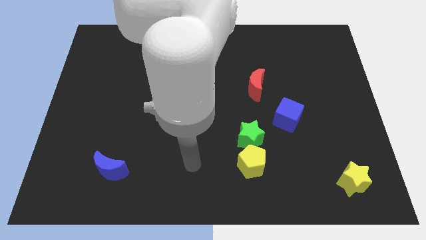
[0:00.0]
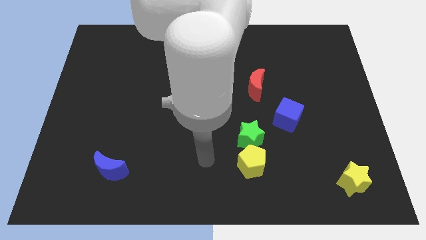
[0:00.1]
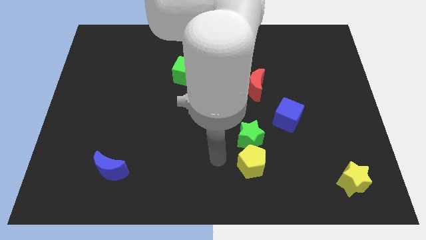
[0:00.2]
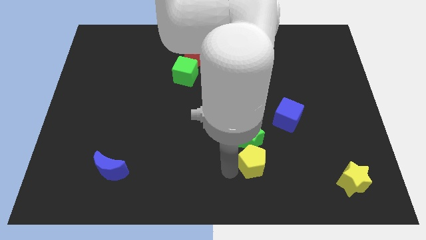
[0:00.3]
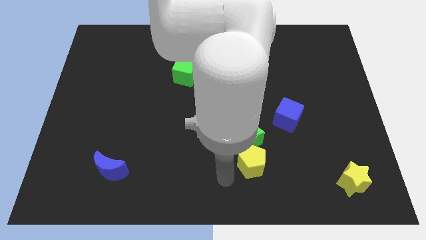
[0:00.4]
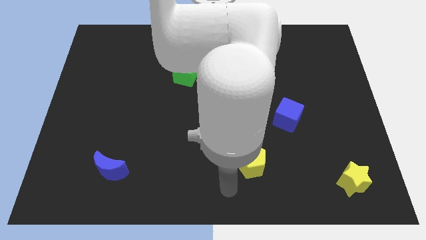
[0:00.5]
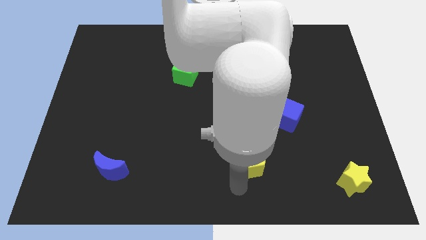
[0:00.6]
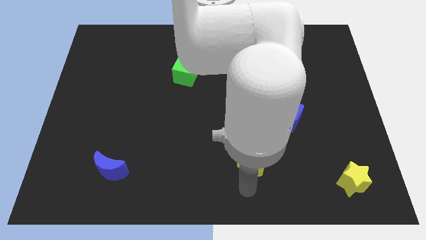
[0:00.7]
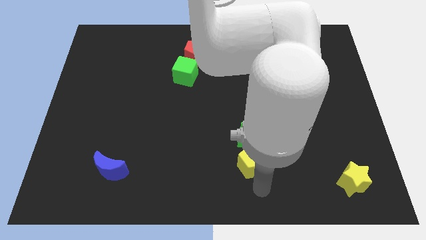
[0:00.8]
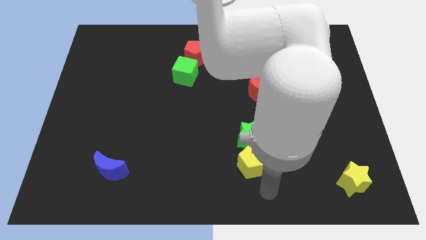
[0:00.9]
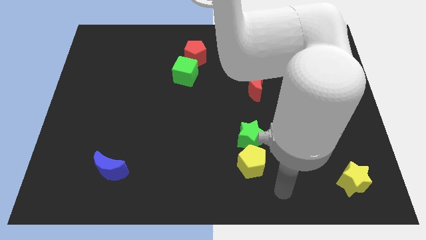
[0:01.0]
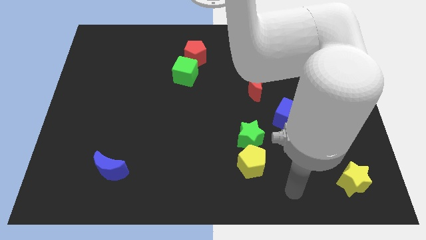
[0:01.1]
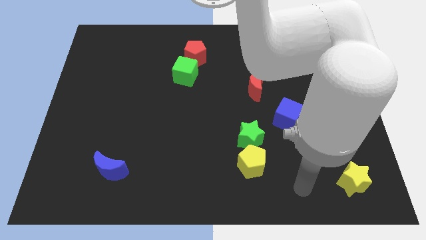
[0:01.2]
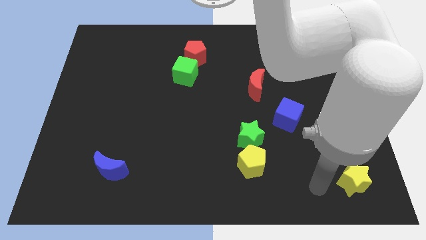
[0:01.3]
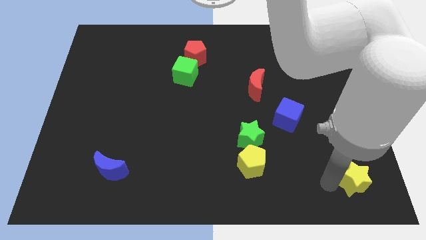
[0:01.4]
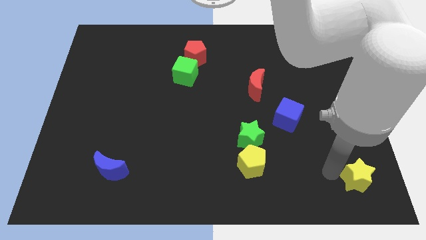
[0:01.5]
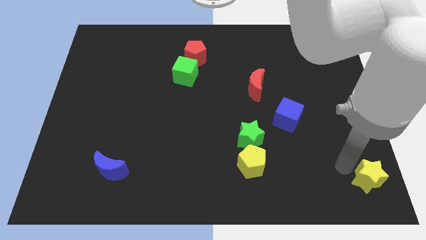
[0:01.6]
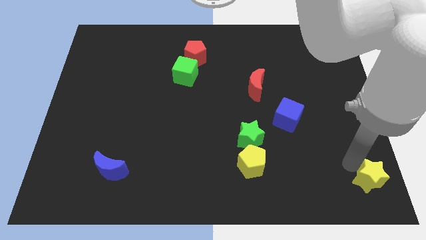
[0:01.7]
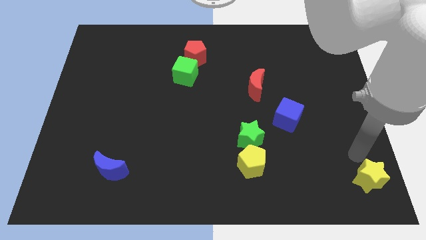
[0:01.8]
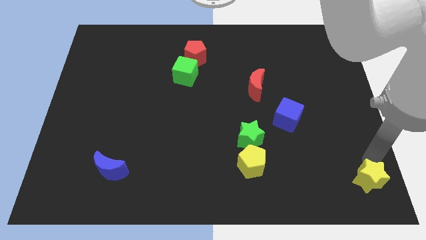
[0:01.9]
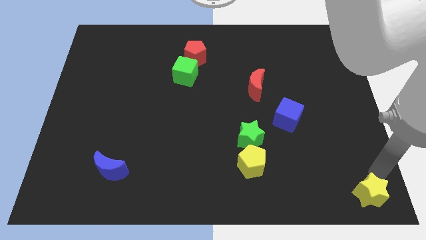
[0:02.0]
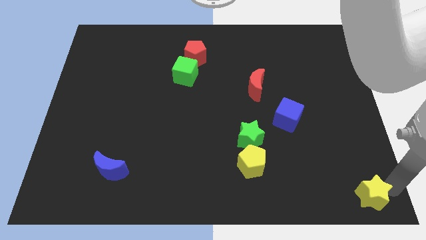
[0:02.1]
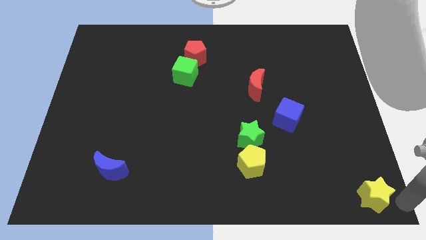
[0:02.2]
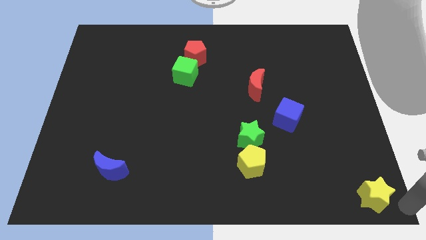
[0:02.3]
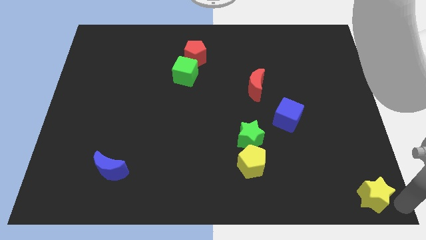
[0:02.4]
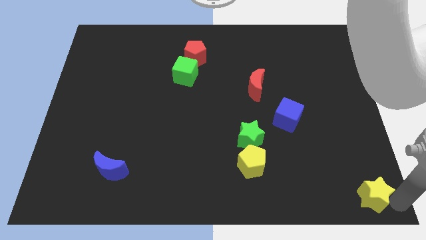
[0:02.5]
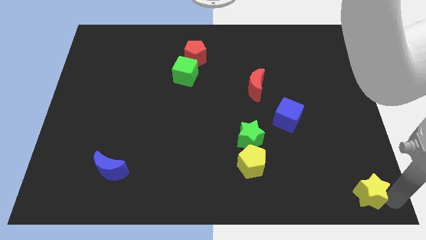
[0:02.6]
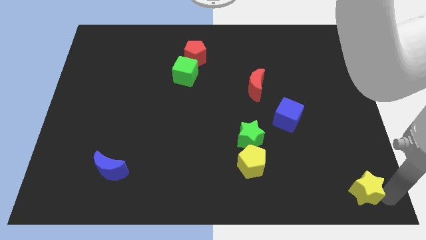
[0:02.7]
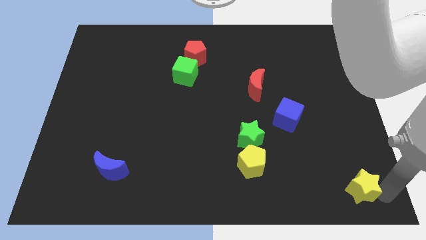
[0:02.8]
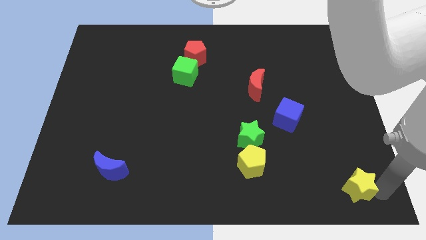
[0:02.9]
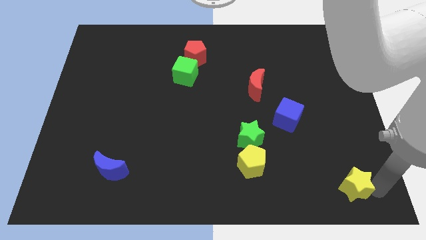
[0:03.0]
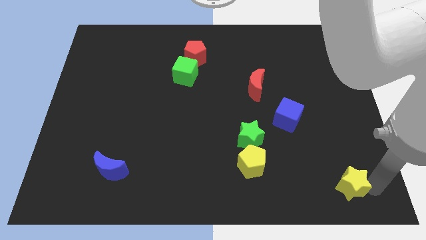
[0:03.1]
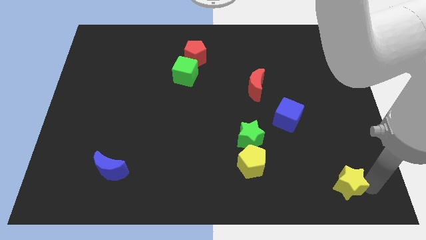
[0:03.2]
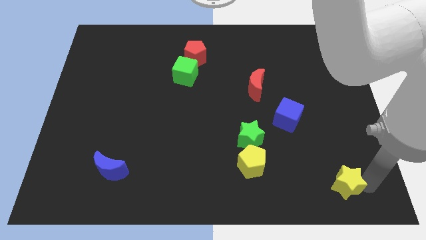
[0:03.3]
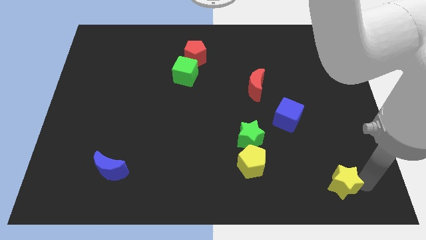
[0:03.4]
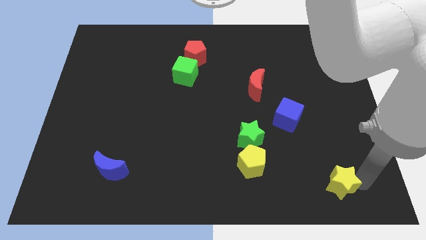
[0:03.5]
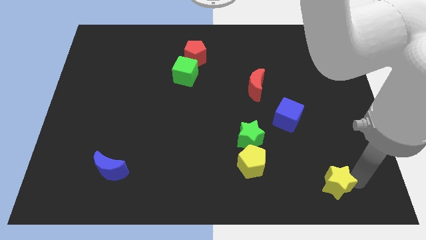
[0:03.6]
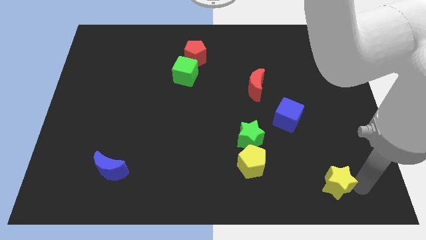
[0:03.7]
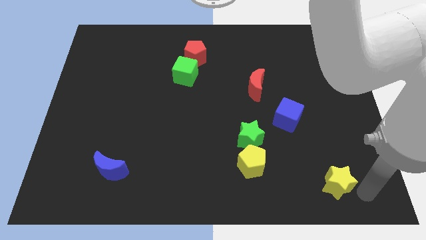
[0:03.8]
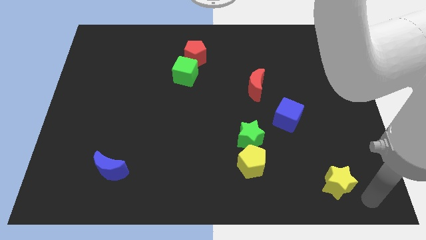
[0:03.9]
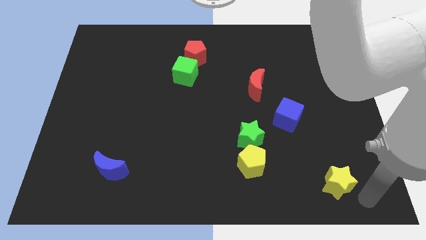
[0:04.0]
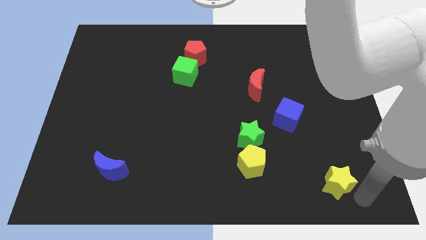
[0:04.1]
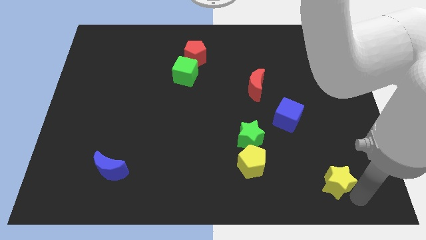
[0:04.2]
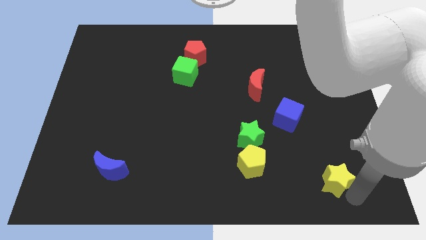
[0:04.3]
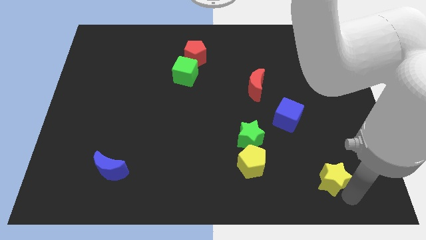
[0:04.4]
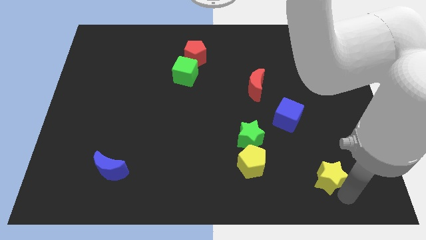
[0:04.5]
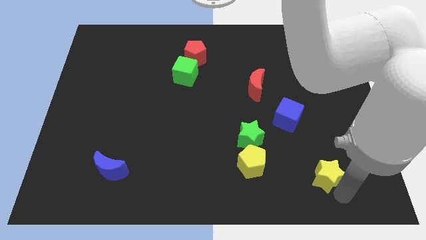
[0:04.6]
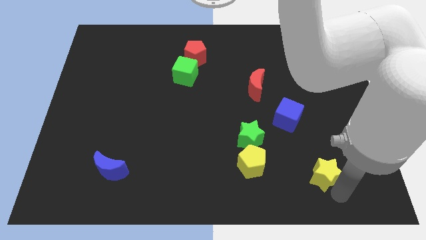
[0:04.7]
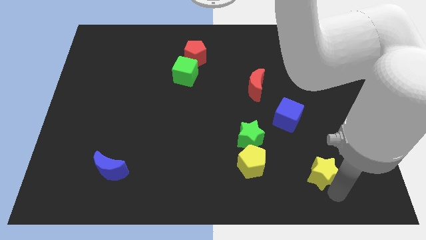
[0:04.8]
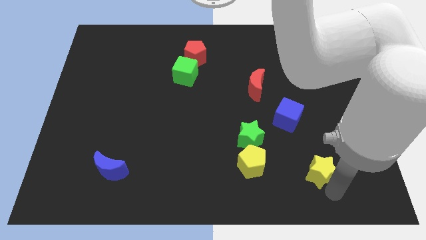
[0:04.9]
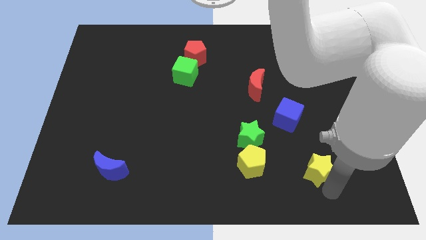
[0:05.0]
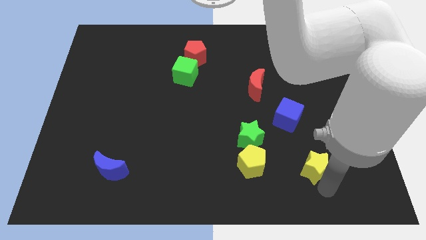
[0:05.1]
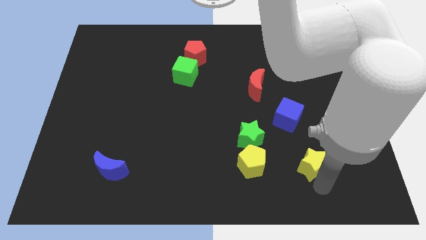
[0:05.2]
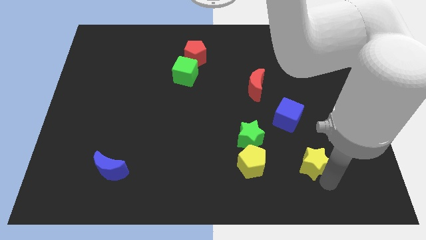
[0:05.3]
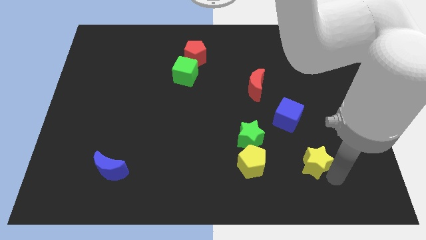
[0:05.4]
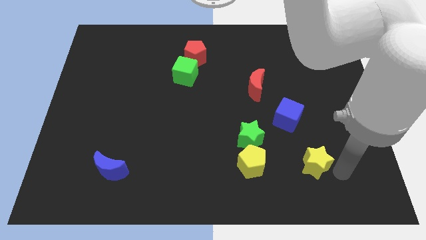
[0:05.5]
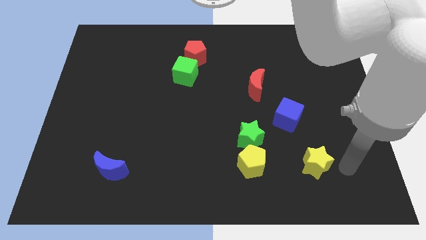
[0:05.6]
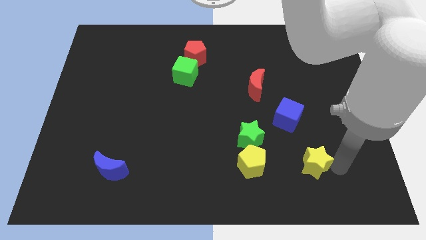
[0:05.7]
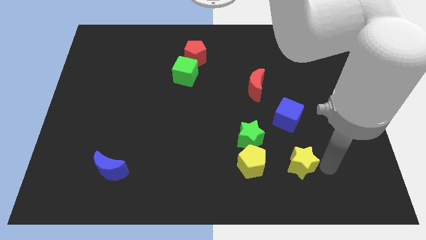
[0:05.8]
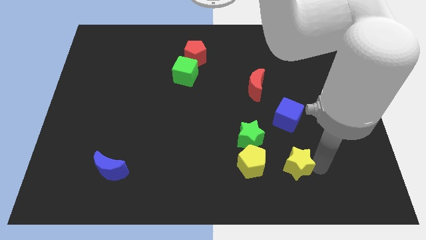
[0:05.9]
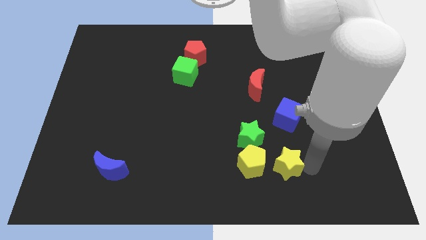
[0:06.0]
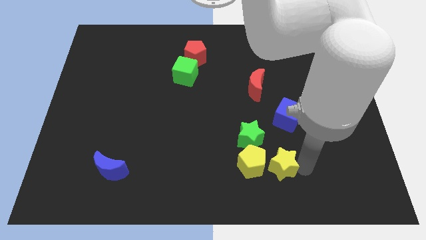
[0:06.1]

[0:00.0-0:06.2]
slide the yellow star next to the yellow pentagon
